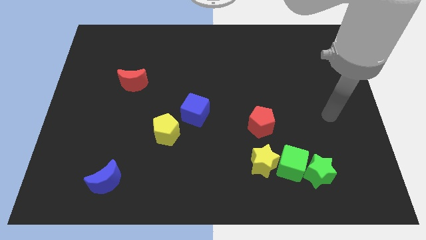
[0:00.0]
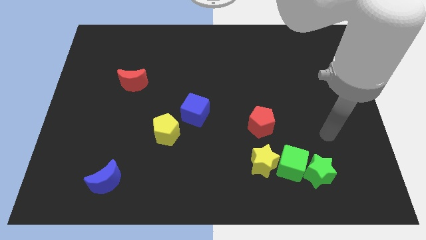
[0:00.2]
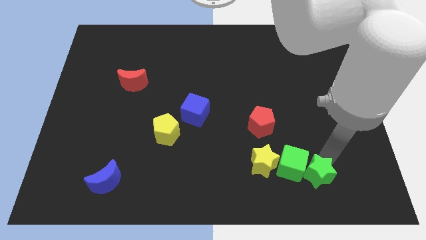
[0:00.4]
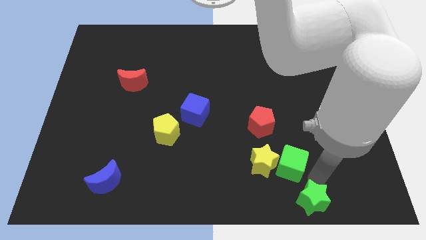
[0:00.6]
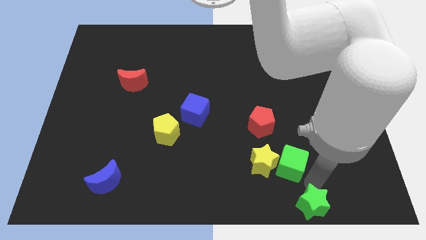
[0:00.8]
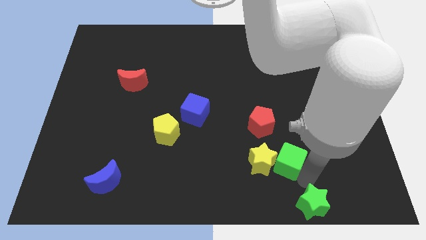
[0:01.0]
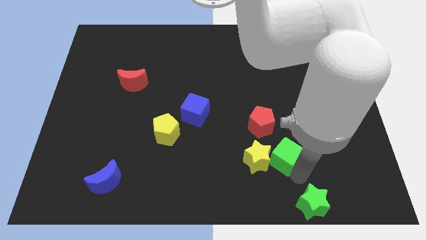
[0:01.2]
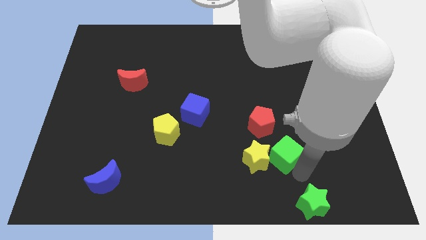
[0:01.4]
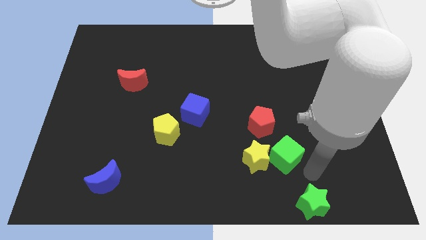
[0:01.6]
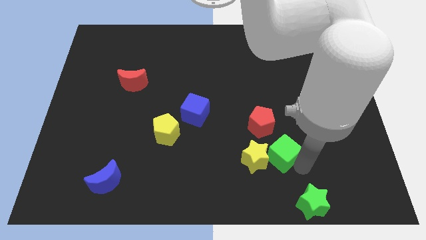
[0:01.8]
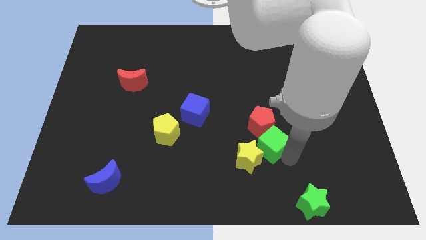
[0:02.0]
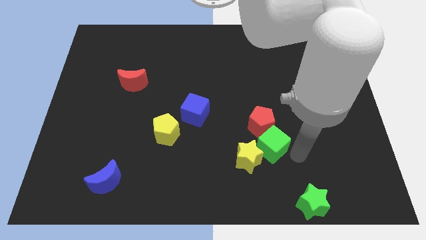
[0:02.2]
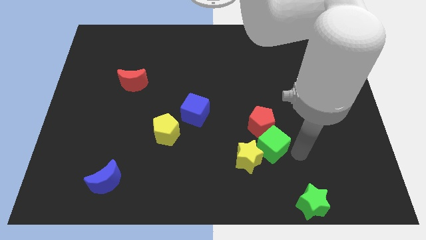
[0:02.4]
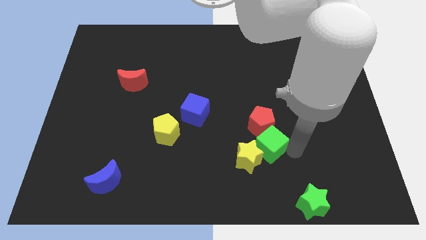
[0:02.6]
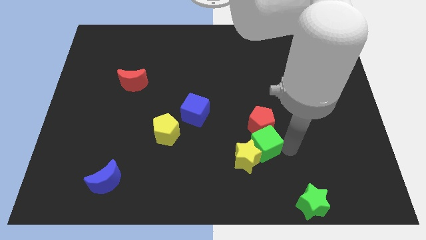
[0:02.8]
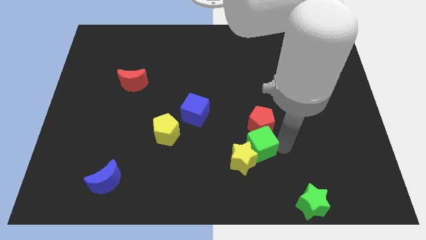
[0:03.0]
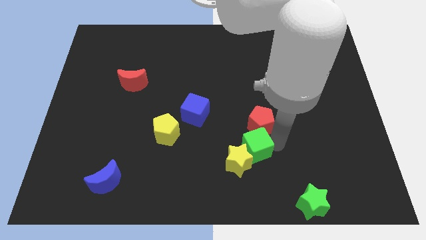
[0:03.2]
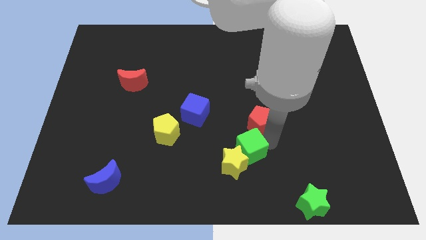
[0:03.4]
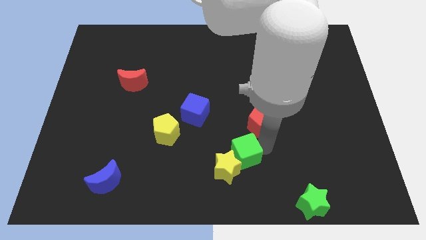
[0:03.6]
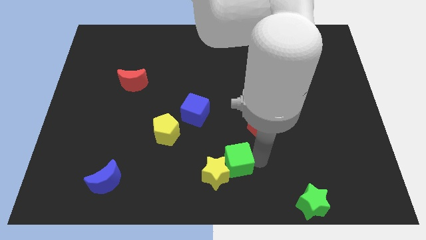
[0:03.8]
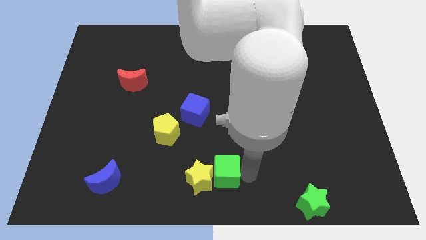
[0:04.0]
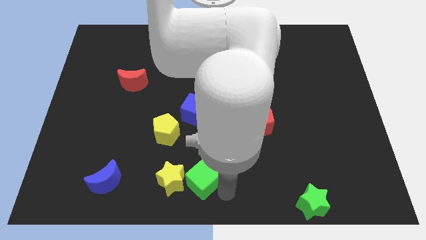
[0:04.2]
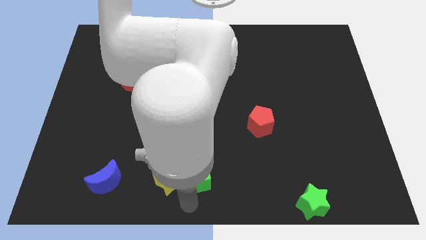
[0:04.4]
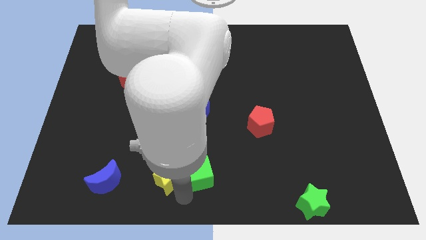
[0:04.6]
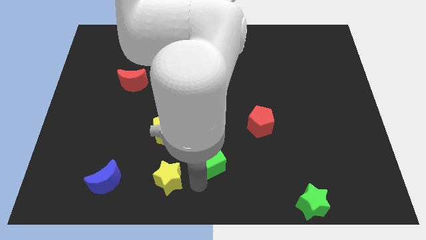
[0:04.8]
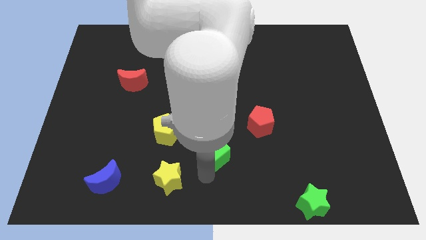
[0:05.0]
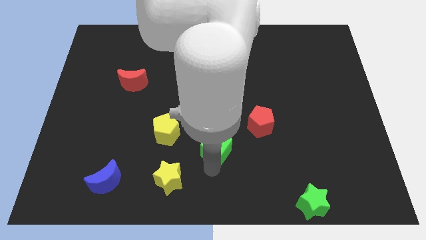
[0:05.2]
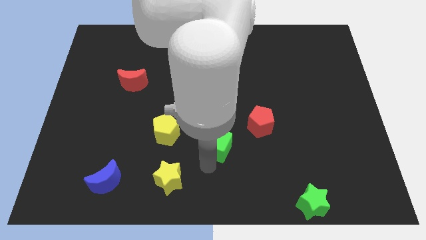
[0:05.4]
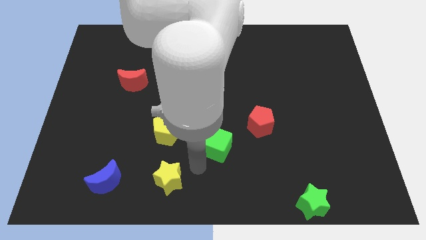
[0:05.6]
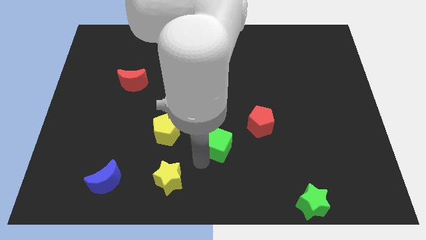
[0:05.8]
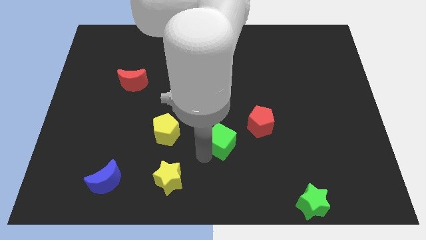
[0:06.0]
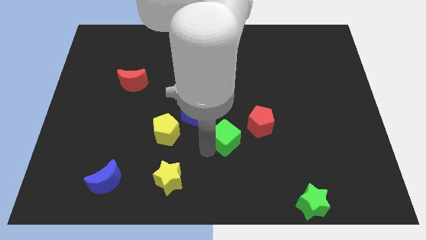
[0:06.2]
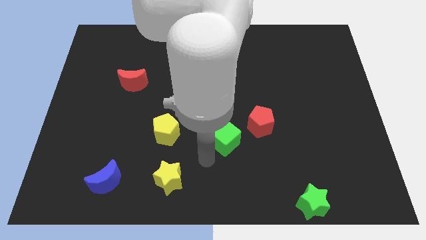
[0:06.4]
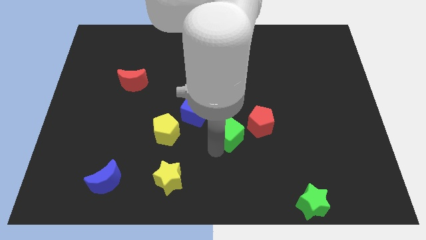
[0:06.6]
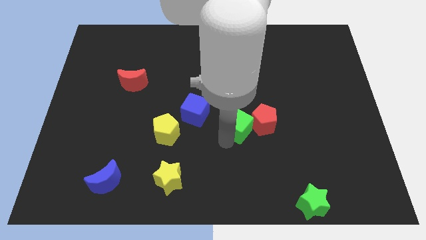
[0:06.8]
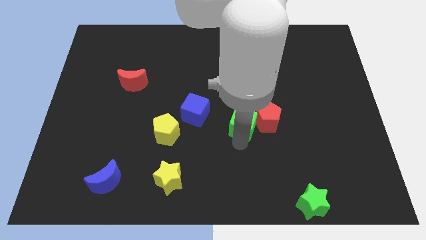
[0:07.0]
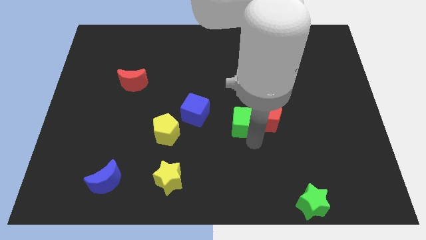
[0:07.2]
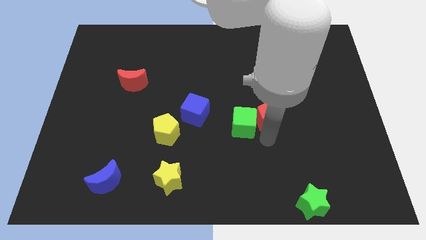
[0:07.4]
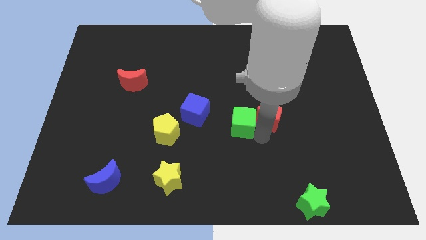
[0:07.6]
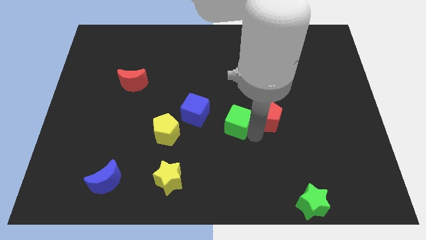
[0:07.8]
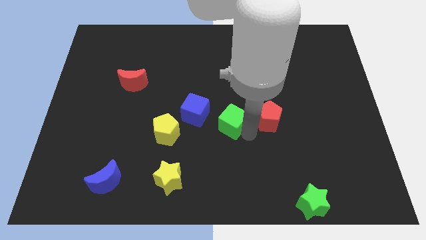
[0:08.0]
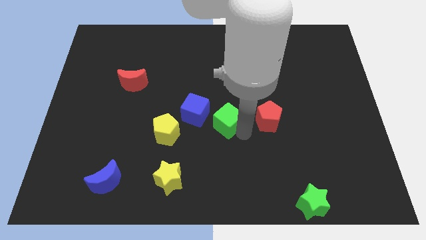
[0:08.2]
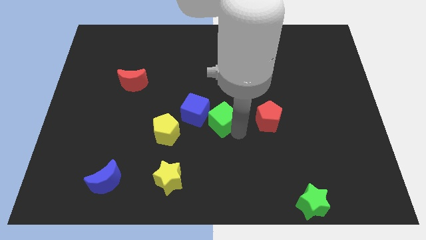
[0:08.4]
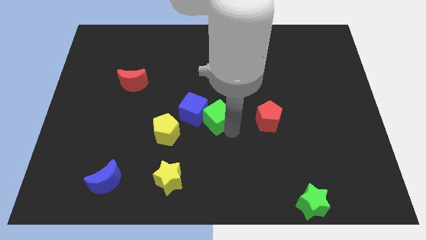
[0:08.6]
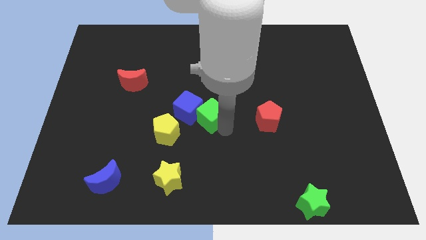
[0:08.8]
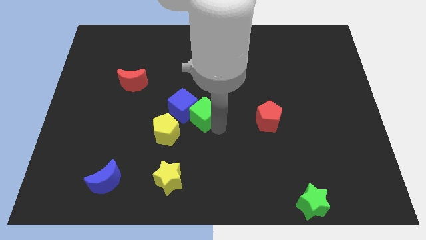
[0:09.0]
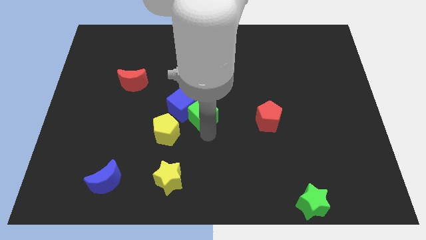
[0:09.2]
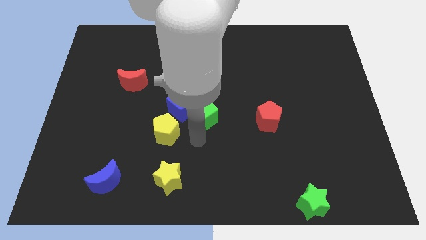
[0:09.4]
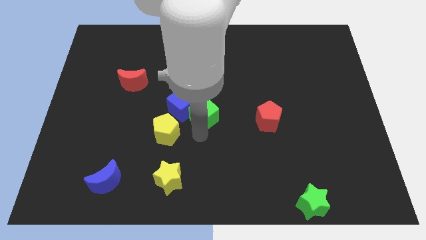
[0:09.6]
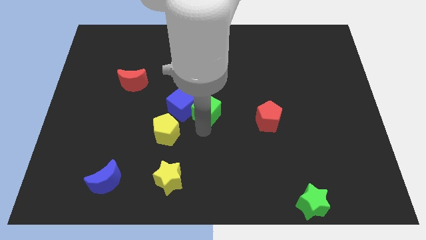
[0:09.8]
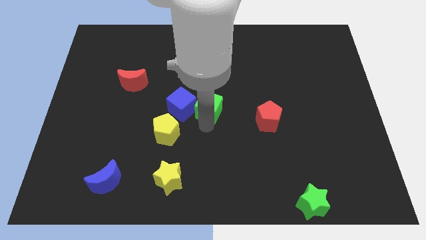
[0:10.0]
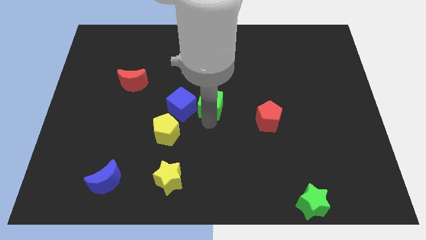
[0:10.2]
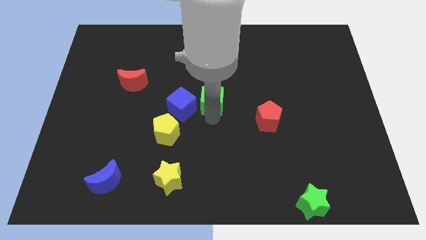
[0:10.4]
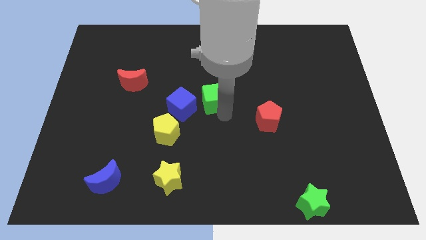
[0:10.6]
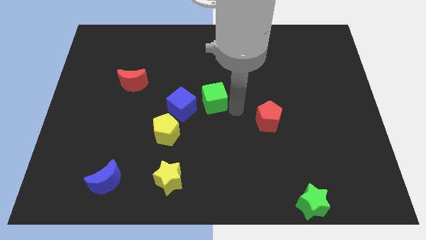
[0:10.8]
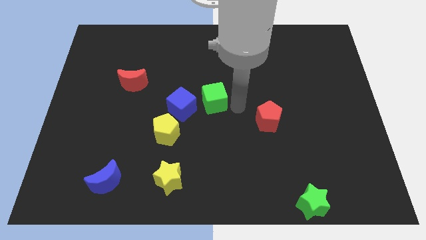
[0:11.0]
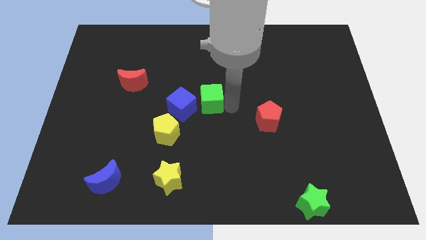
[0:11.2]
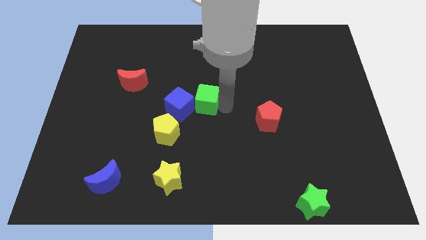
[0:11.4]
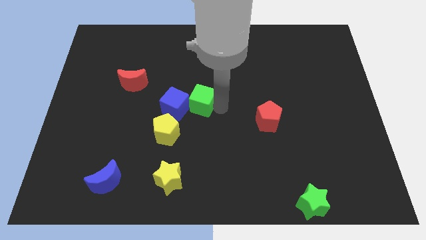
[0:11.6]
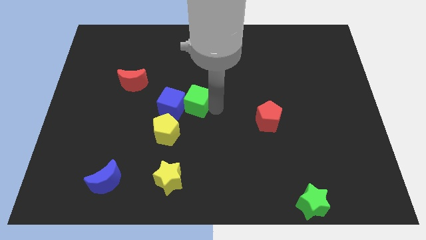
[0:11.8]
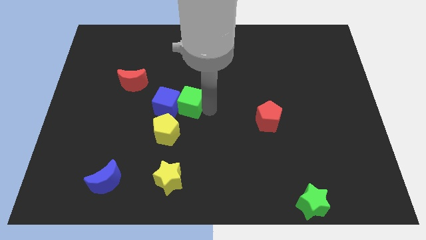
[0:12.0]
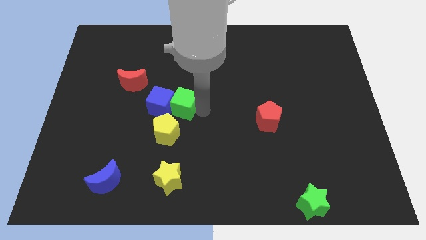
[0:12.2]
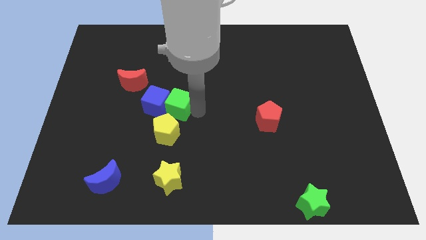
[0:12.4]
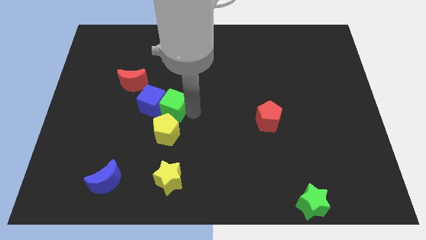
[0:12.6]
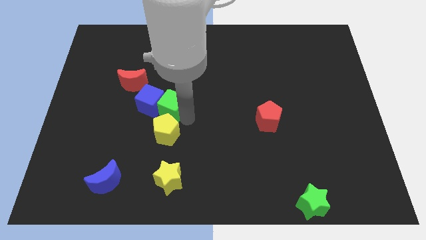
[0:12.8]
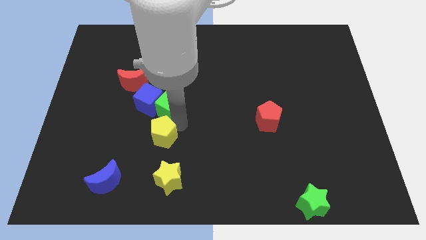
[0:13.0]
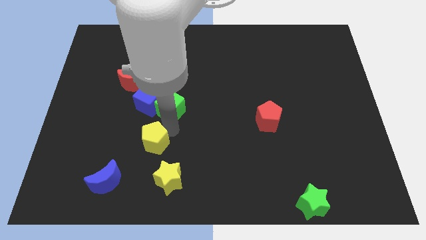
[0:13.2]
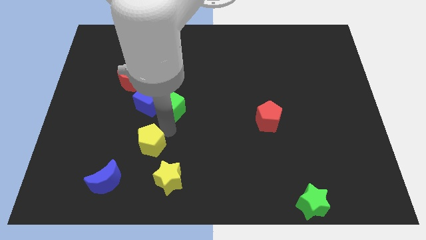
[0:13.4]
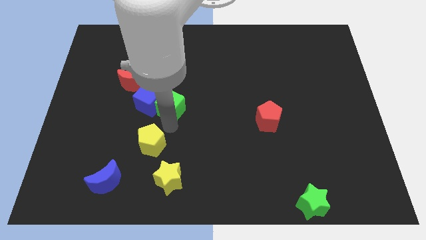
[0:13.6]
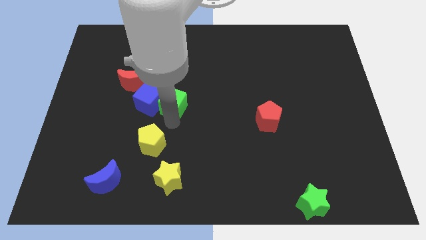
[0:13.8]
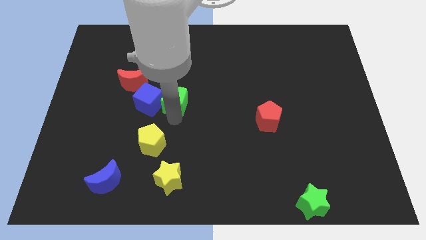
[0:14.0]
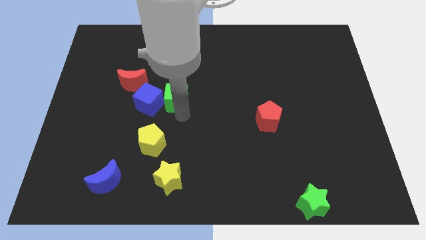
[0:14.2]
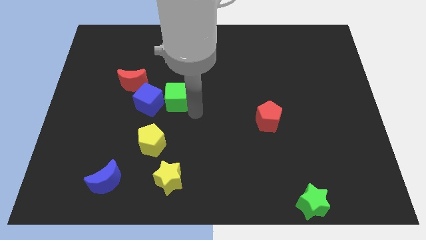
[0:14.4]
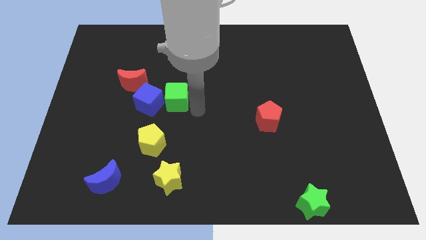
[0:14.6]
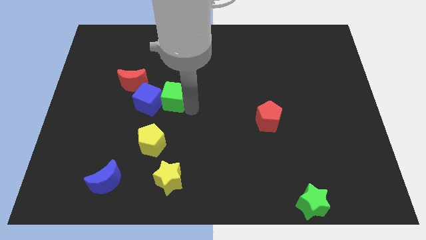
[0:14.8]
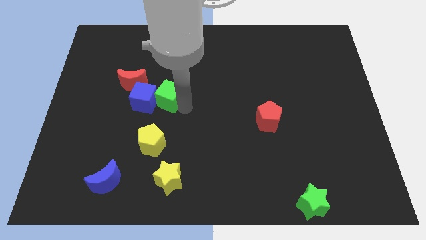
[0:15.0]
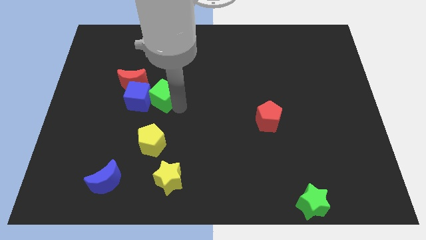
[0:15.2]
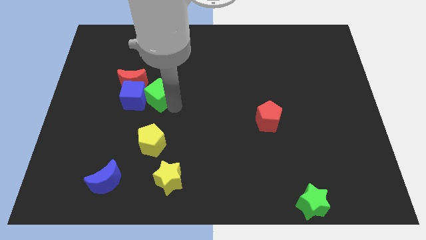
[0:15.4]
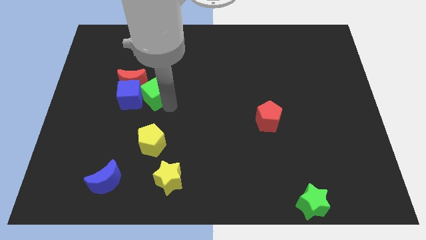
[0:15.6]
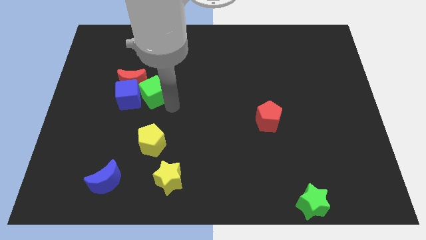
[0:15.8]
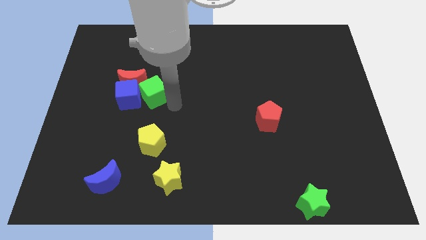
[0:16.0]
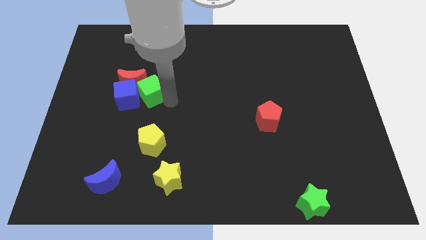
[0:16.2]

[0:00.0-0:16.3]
move the green cube close to the red moon
